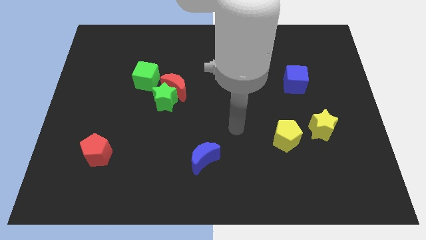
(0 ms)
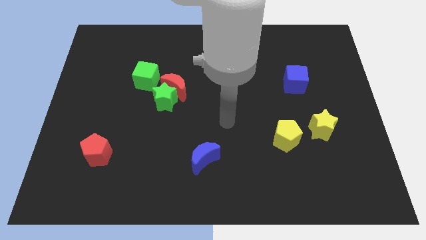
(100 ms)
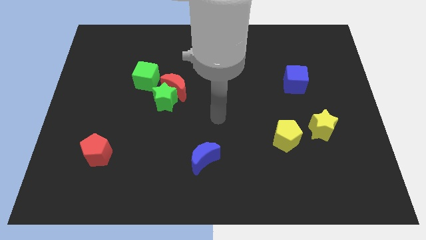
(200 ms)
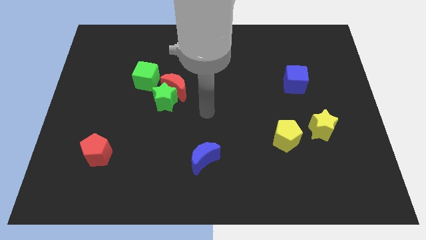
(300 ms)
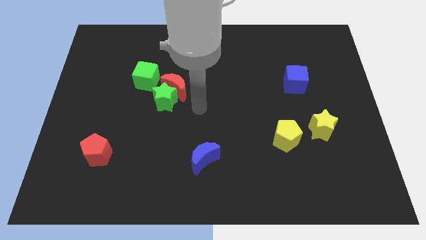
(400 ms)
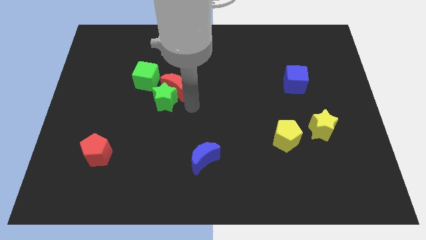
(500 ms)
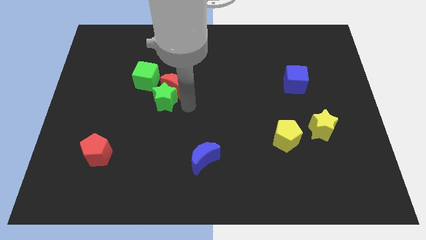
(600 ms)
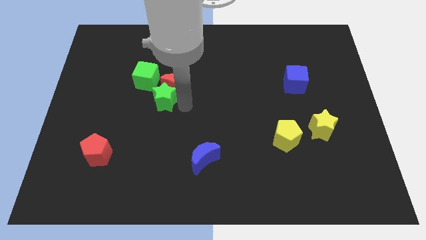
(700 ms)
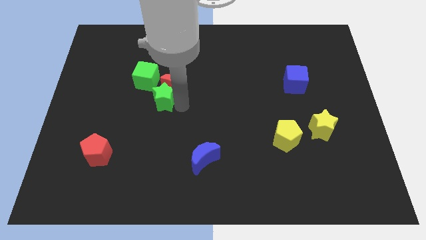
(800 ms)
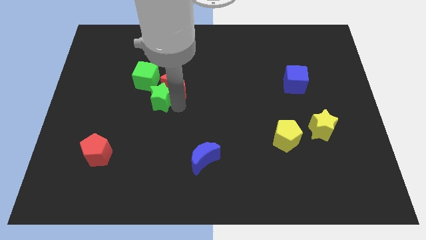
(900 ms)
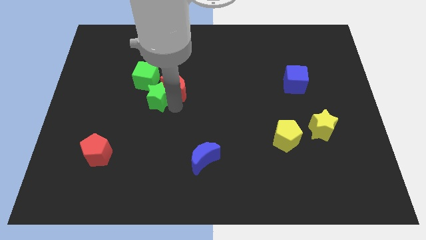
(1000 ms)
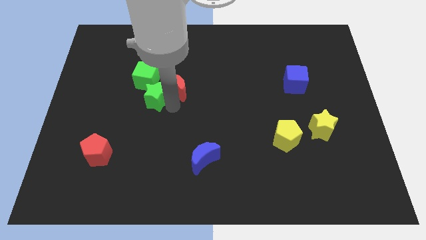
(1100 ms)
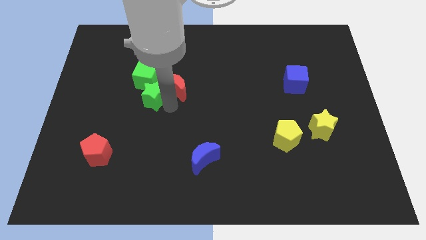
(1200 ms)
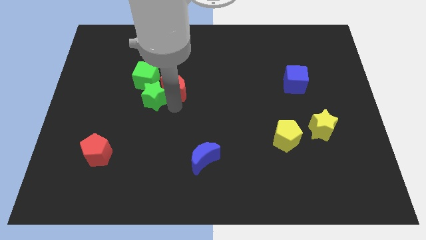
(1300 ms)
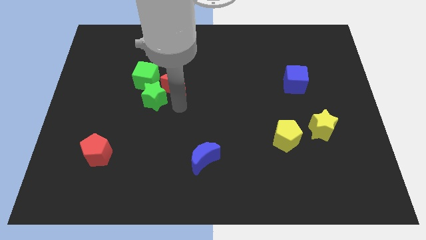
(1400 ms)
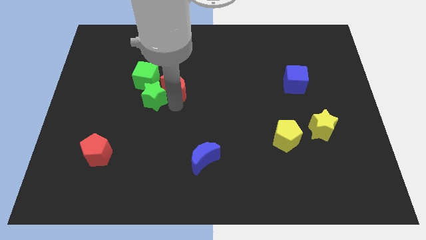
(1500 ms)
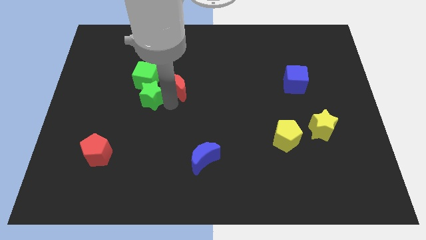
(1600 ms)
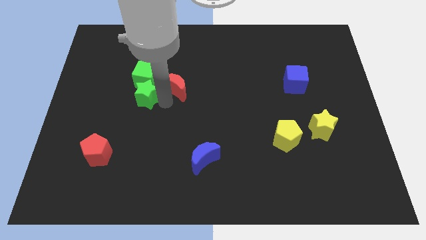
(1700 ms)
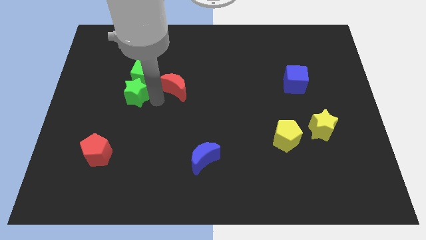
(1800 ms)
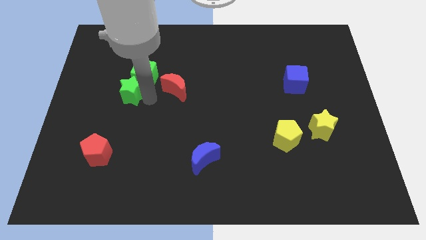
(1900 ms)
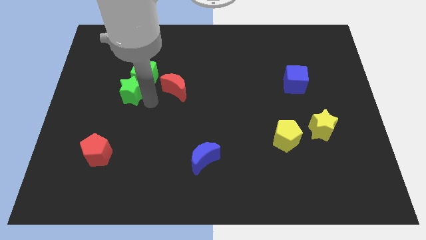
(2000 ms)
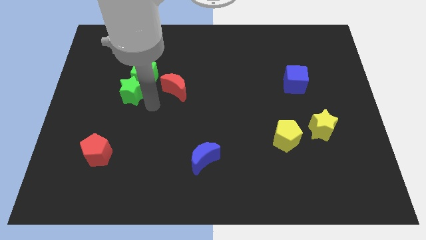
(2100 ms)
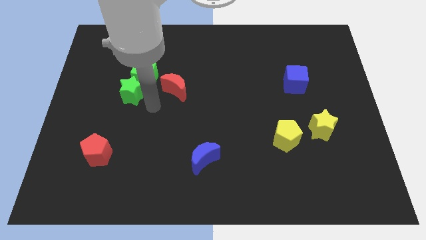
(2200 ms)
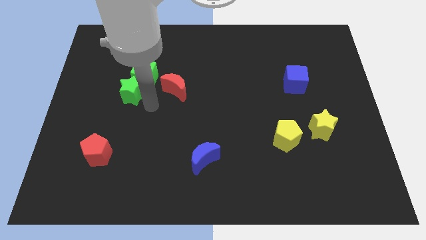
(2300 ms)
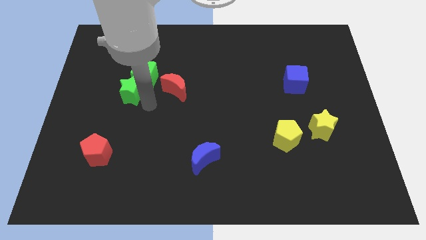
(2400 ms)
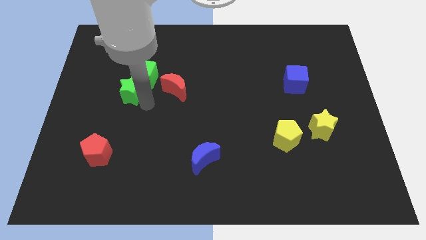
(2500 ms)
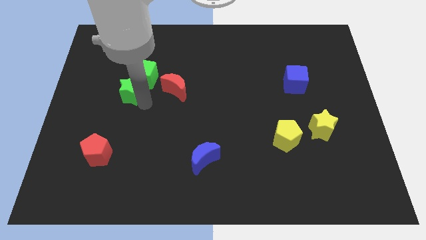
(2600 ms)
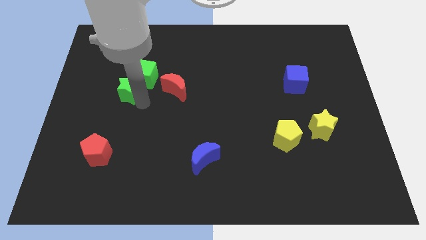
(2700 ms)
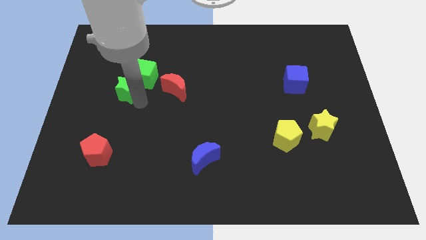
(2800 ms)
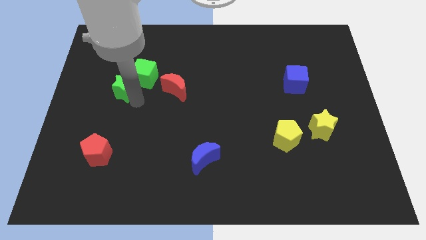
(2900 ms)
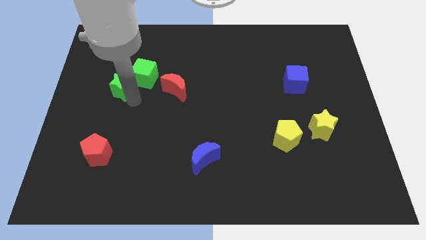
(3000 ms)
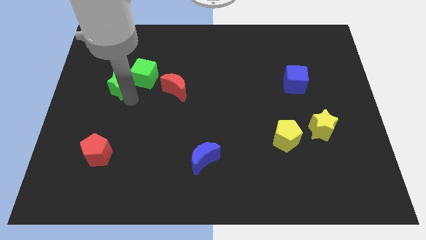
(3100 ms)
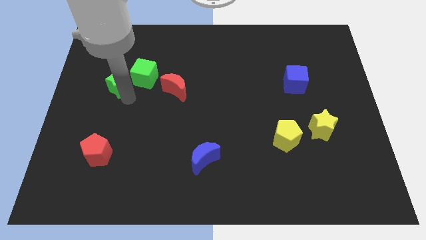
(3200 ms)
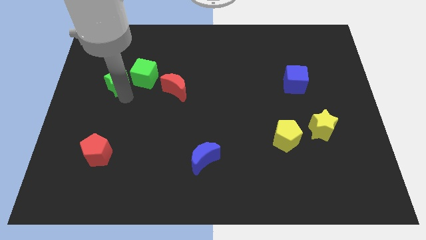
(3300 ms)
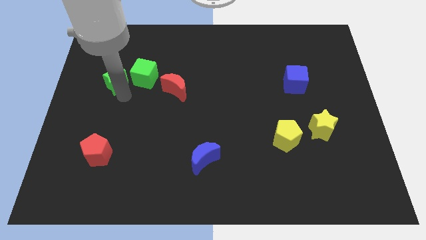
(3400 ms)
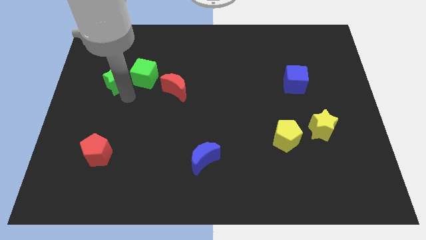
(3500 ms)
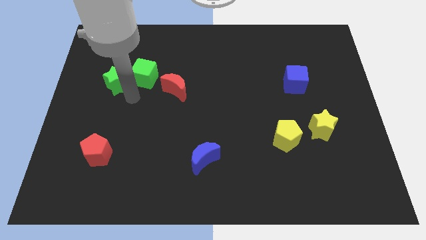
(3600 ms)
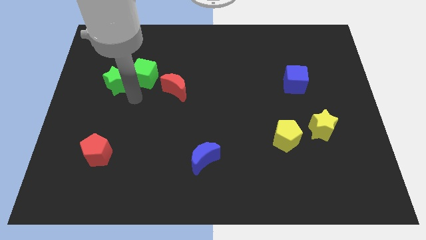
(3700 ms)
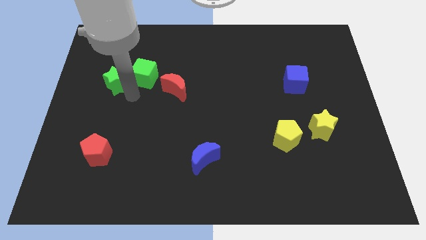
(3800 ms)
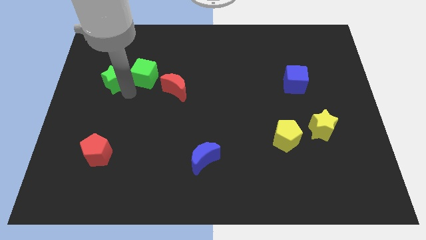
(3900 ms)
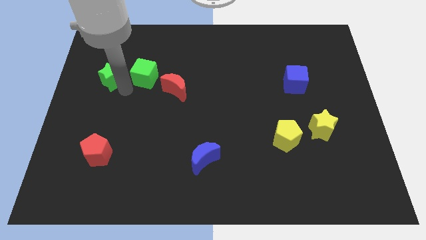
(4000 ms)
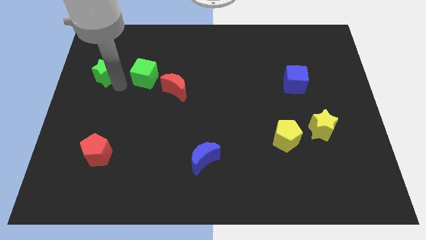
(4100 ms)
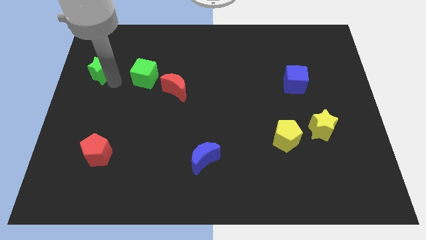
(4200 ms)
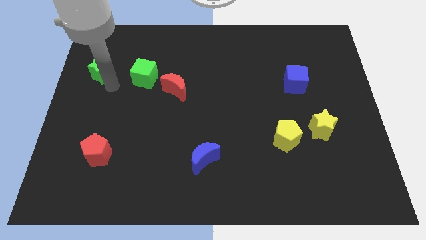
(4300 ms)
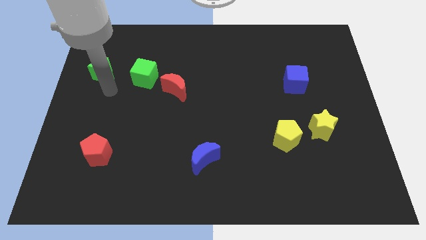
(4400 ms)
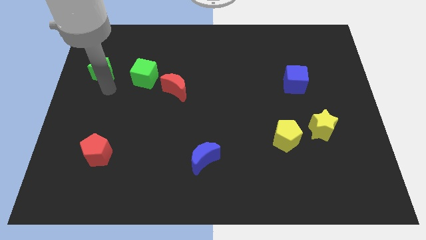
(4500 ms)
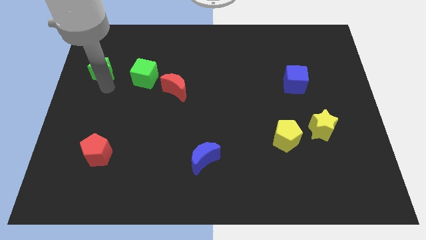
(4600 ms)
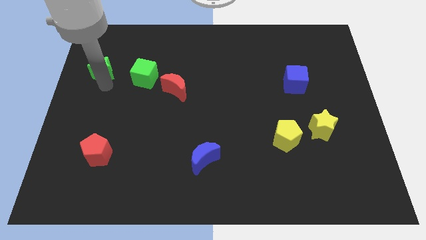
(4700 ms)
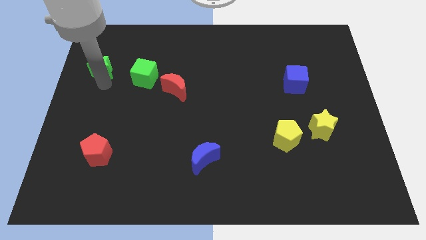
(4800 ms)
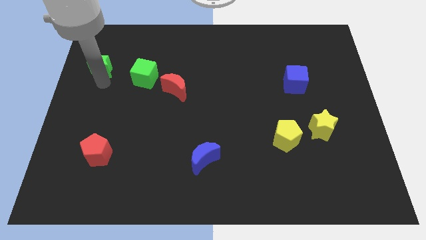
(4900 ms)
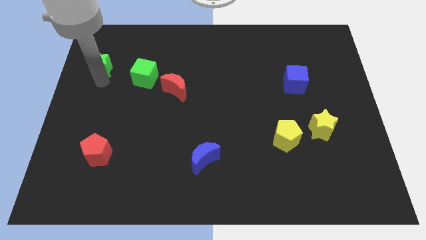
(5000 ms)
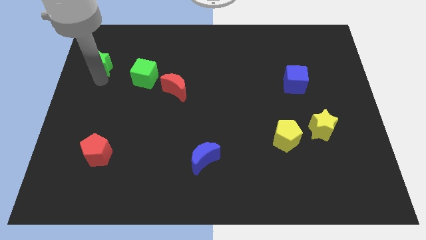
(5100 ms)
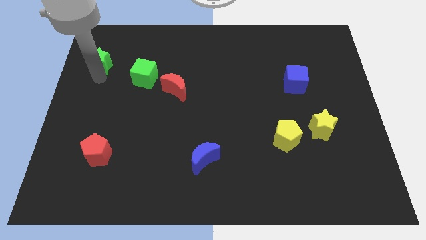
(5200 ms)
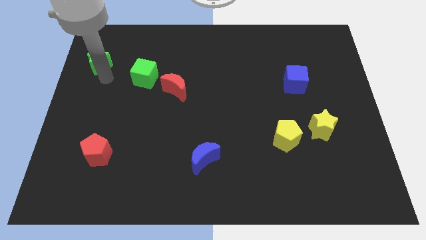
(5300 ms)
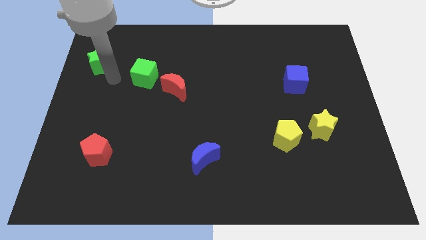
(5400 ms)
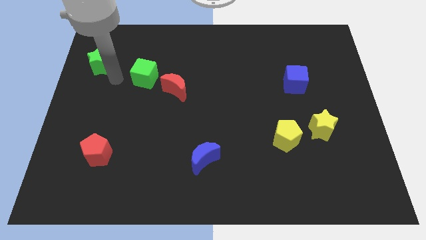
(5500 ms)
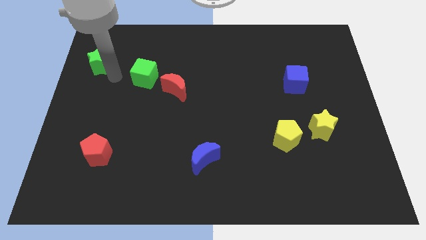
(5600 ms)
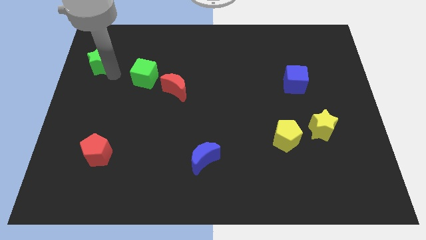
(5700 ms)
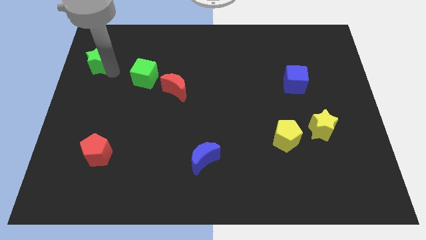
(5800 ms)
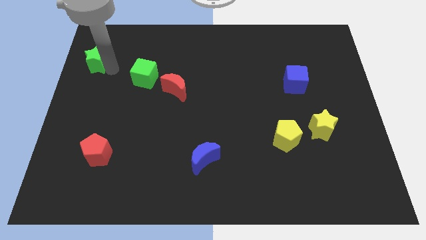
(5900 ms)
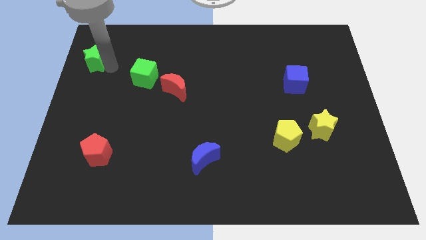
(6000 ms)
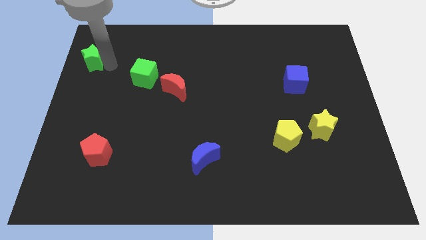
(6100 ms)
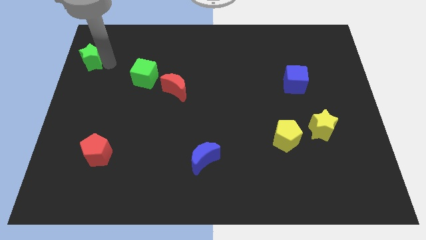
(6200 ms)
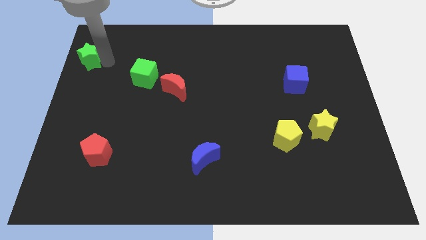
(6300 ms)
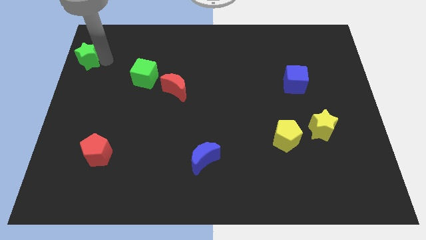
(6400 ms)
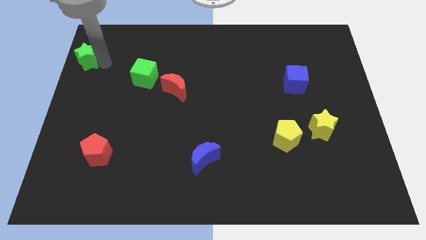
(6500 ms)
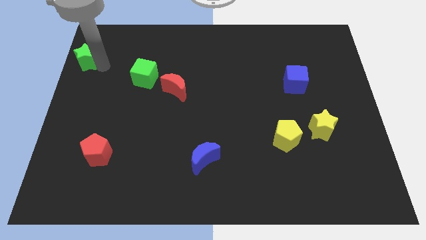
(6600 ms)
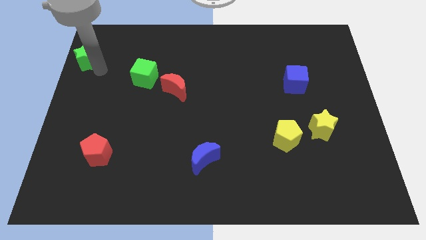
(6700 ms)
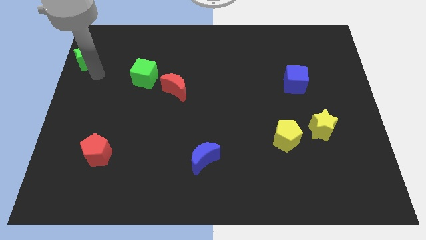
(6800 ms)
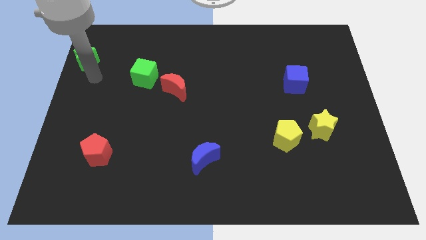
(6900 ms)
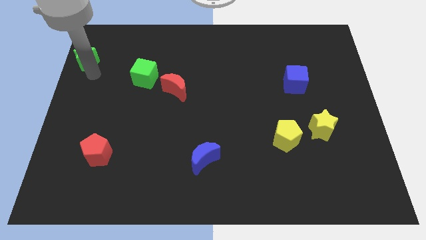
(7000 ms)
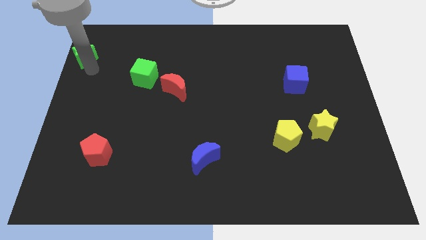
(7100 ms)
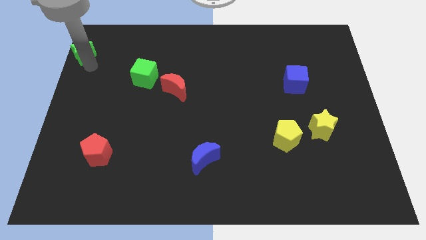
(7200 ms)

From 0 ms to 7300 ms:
put the green star to the top left of the board
